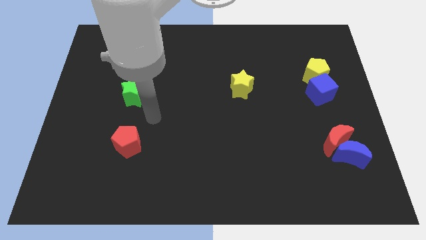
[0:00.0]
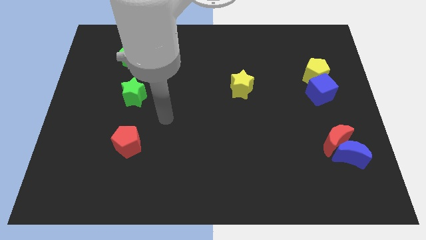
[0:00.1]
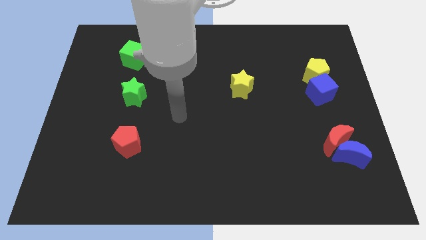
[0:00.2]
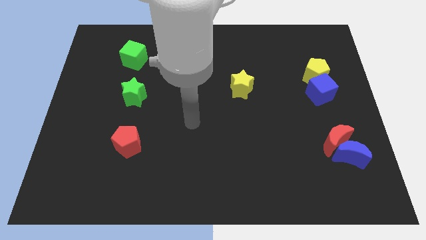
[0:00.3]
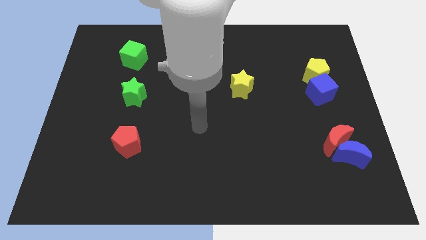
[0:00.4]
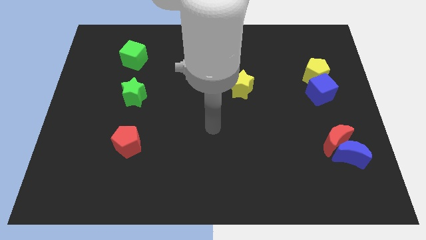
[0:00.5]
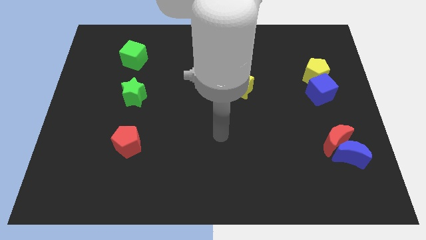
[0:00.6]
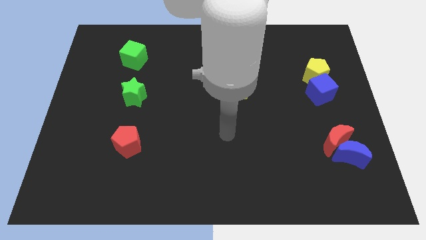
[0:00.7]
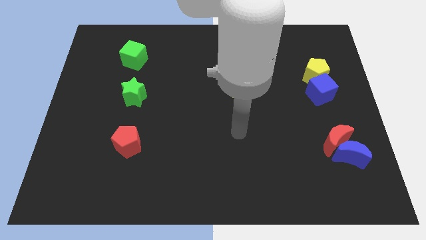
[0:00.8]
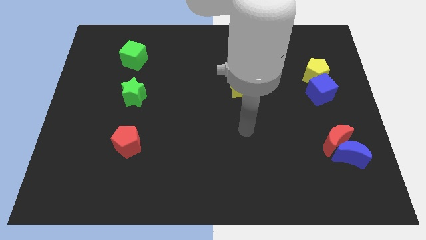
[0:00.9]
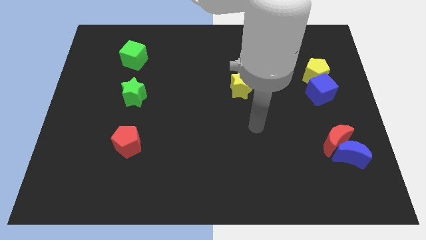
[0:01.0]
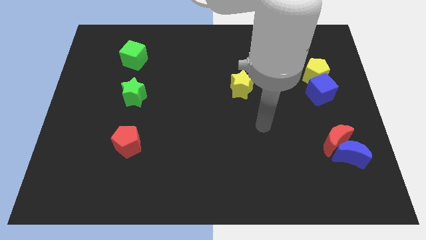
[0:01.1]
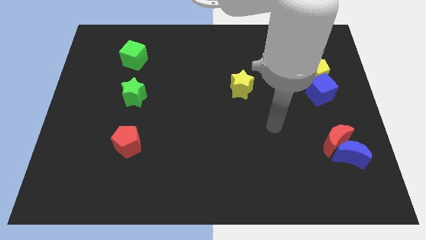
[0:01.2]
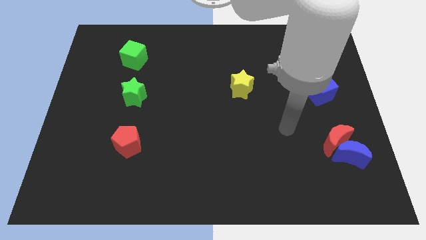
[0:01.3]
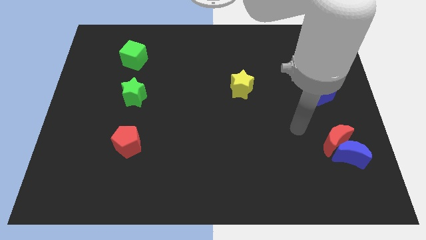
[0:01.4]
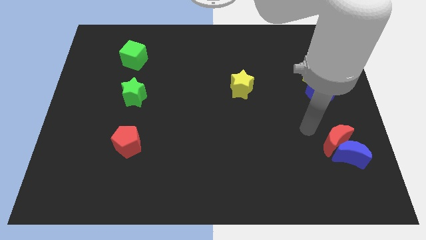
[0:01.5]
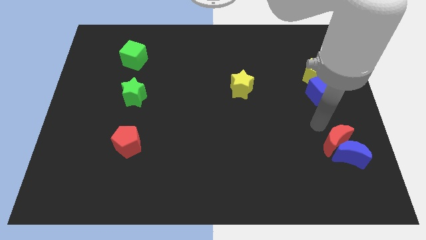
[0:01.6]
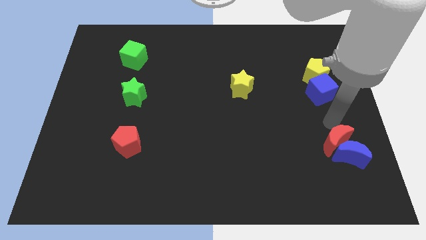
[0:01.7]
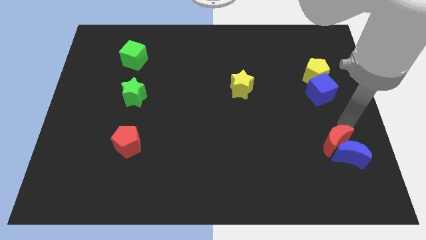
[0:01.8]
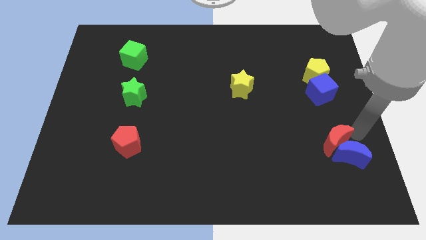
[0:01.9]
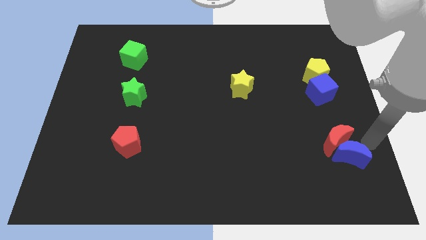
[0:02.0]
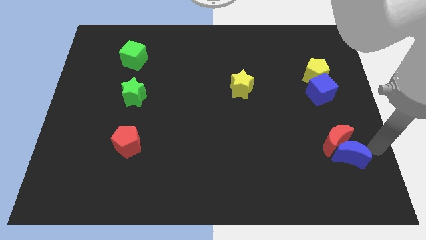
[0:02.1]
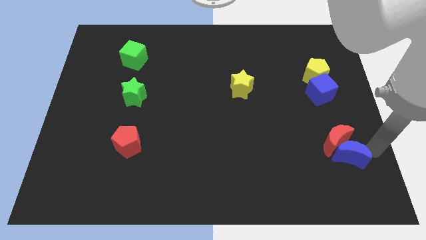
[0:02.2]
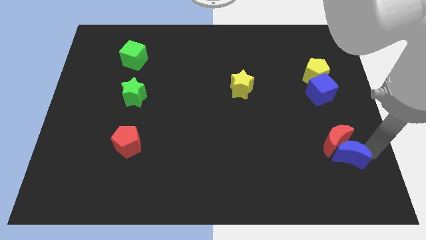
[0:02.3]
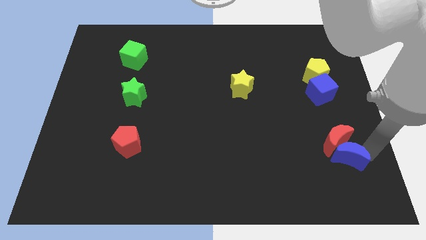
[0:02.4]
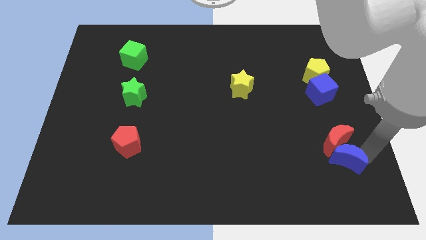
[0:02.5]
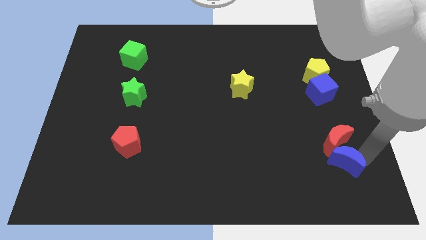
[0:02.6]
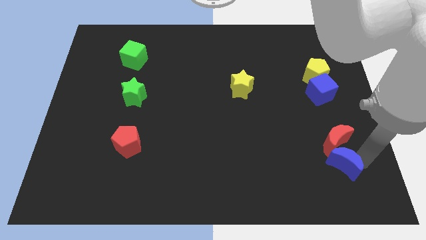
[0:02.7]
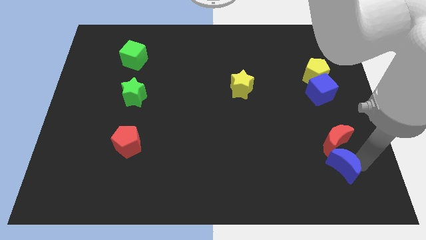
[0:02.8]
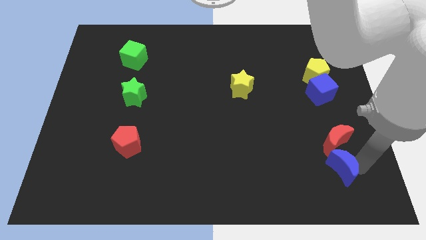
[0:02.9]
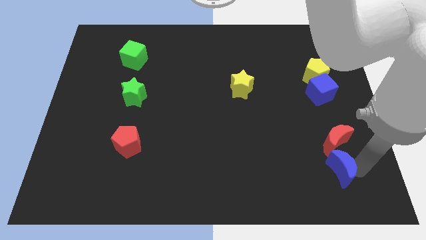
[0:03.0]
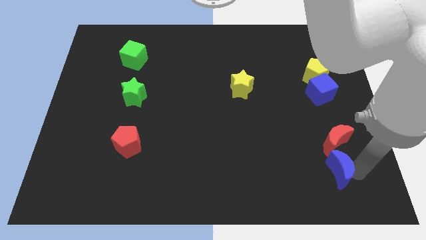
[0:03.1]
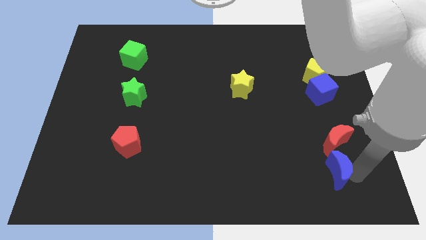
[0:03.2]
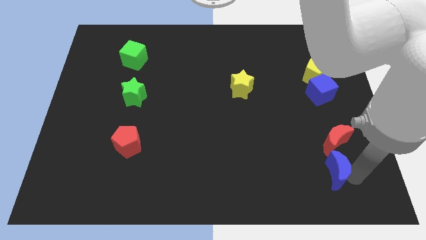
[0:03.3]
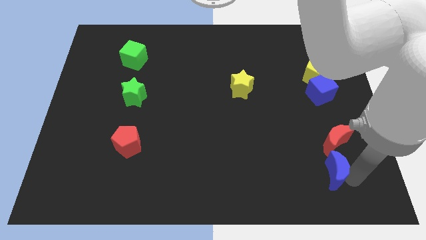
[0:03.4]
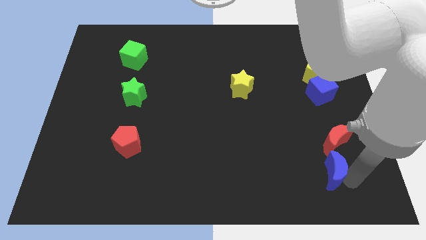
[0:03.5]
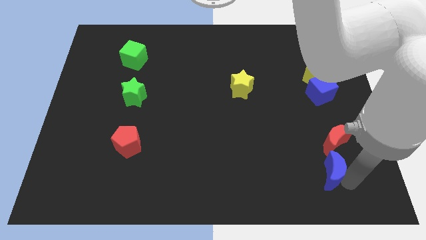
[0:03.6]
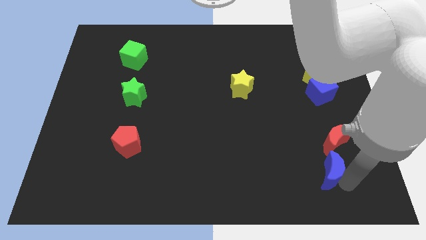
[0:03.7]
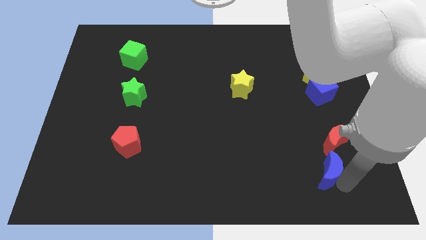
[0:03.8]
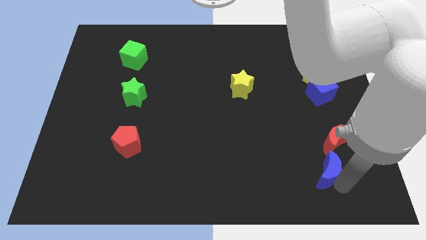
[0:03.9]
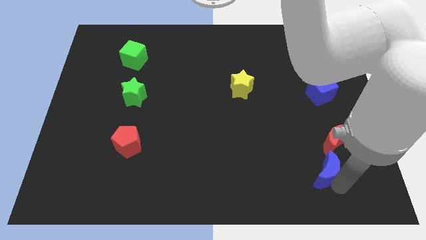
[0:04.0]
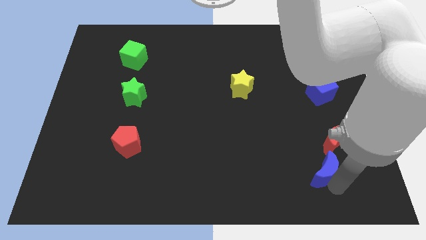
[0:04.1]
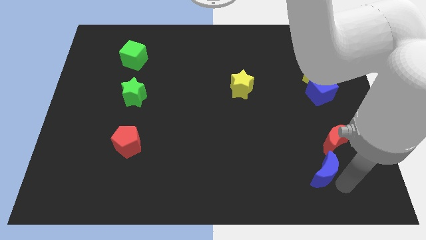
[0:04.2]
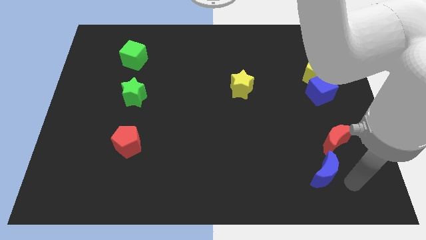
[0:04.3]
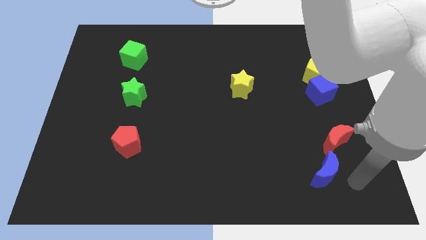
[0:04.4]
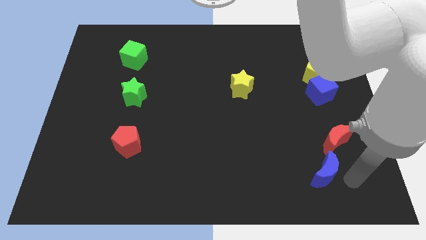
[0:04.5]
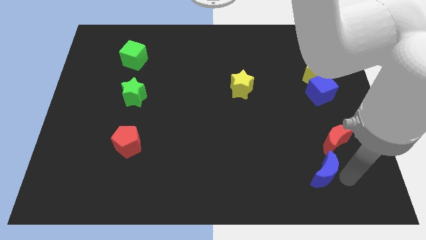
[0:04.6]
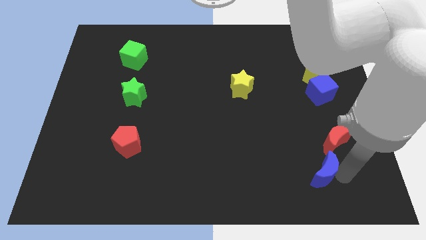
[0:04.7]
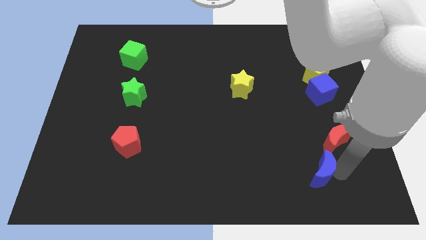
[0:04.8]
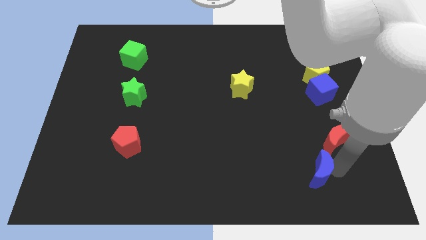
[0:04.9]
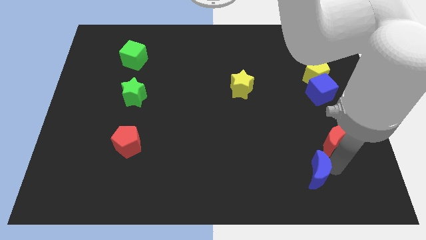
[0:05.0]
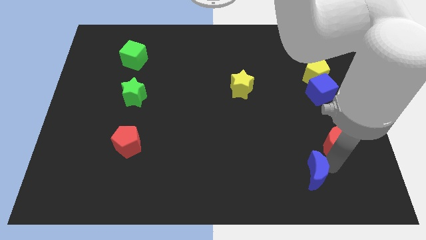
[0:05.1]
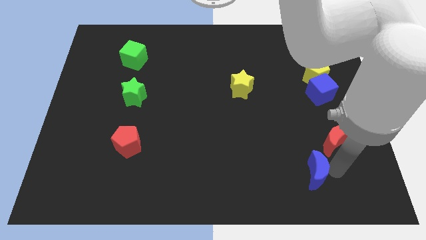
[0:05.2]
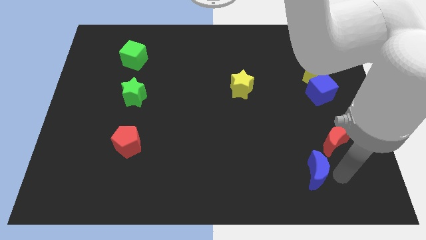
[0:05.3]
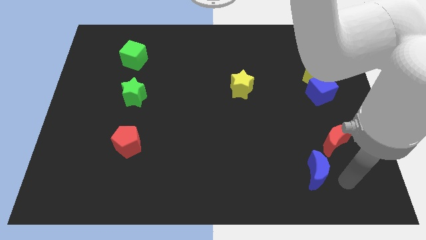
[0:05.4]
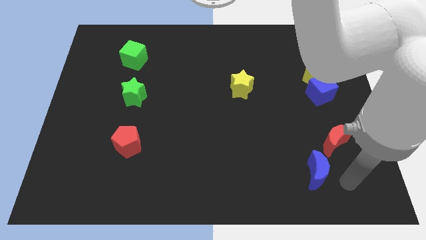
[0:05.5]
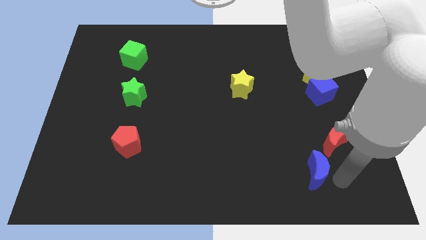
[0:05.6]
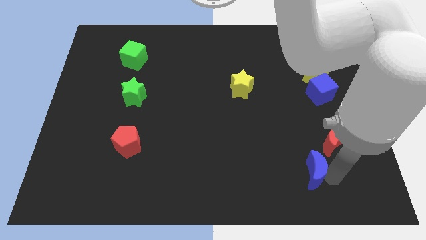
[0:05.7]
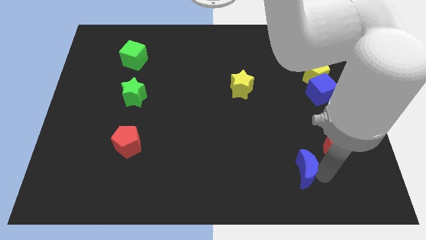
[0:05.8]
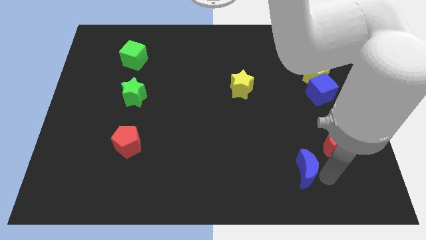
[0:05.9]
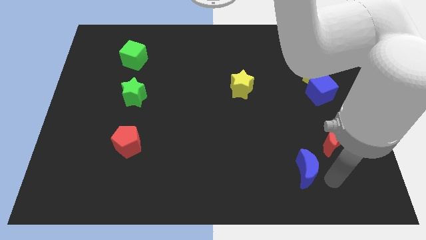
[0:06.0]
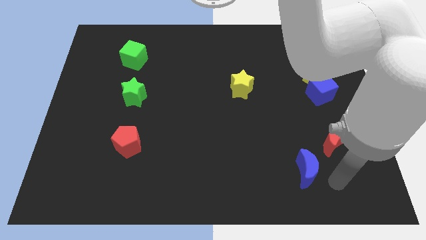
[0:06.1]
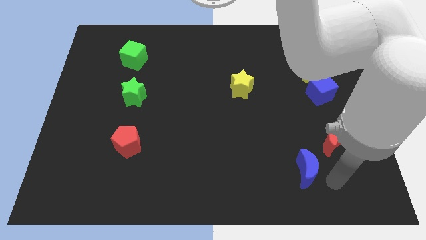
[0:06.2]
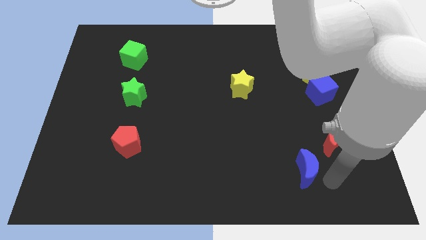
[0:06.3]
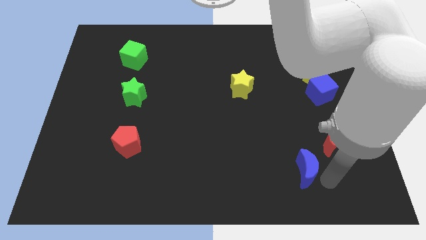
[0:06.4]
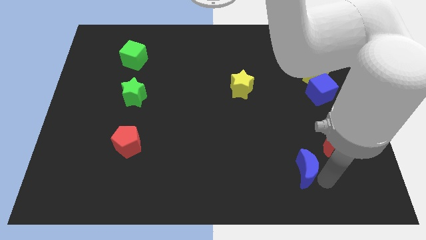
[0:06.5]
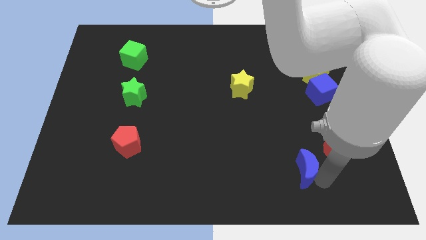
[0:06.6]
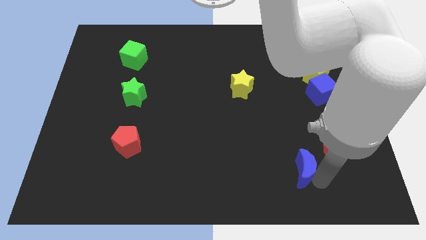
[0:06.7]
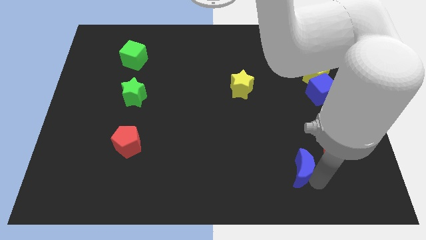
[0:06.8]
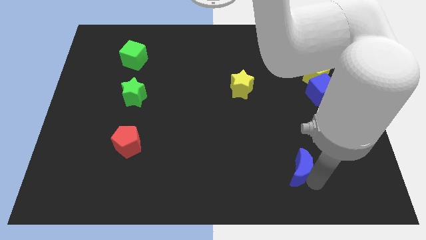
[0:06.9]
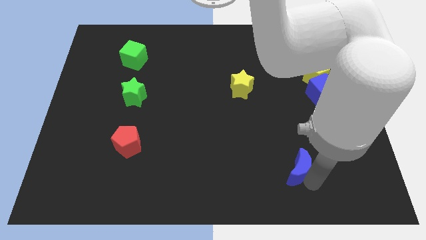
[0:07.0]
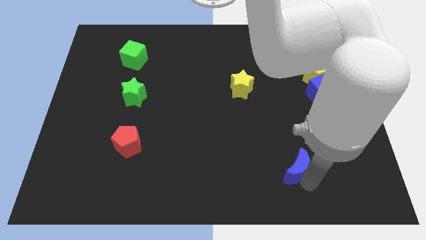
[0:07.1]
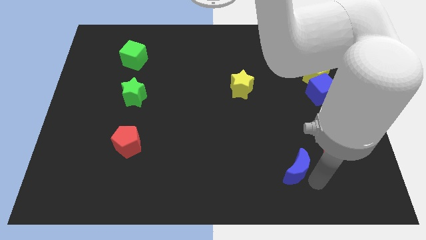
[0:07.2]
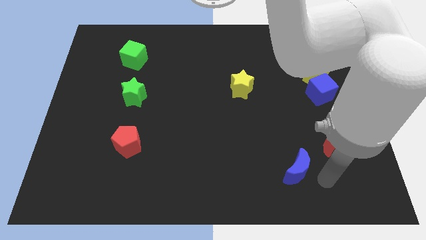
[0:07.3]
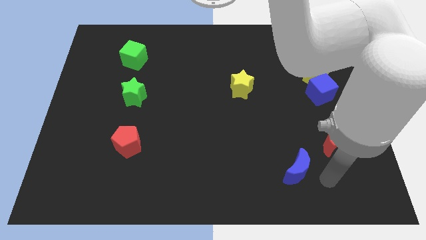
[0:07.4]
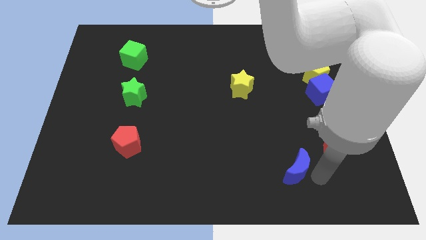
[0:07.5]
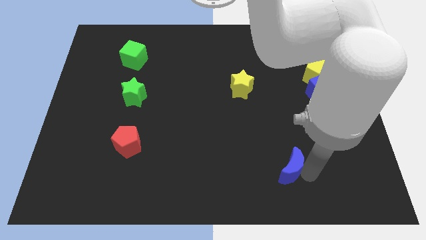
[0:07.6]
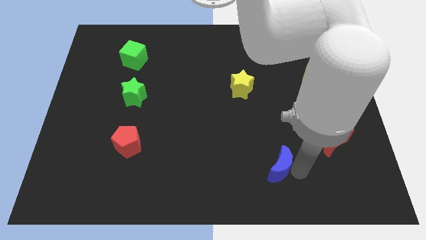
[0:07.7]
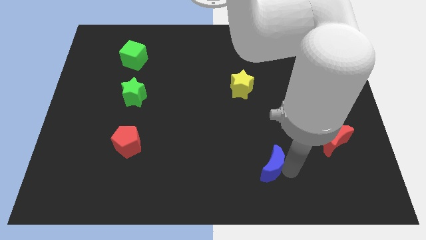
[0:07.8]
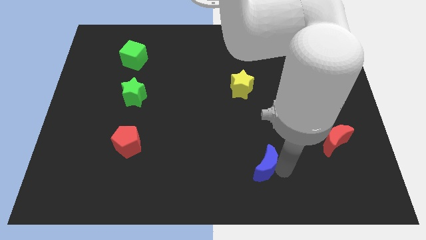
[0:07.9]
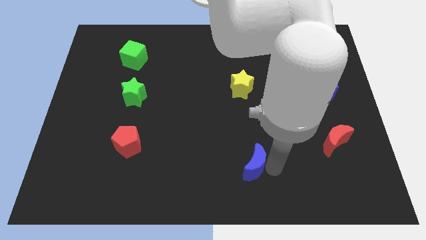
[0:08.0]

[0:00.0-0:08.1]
push the blue moon left
